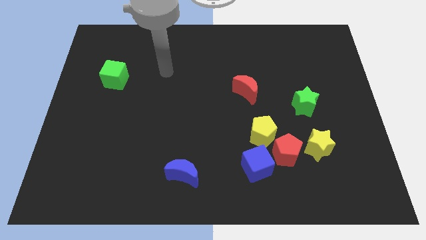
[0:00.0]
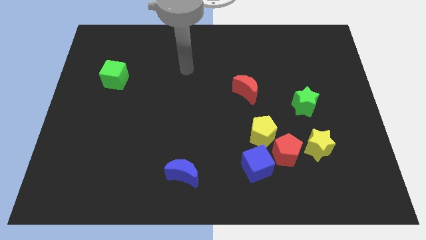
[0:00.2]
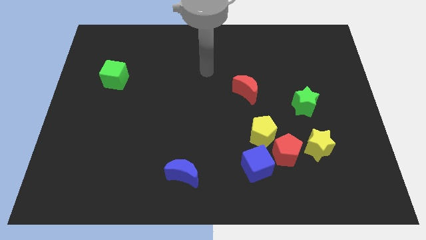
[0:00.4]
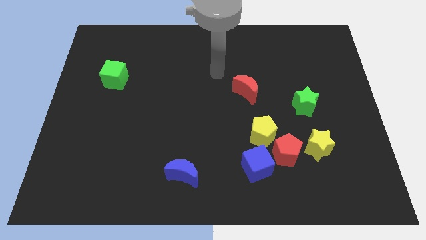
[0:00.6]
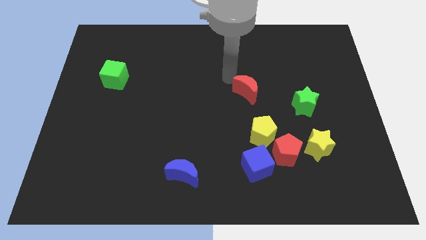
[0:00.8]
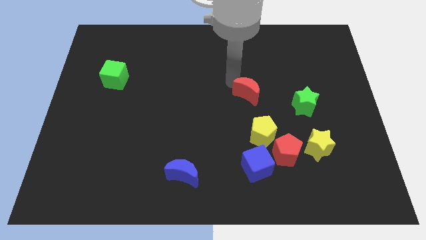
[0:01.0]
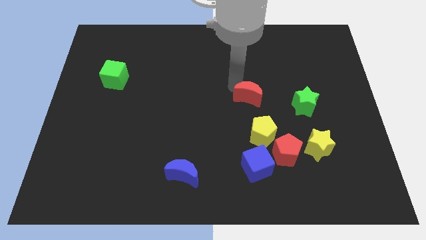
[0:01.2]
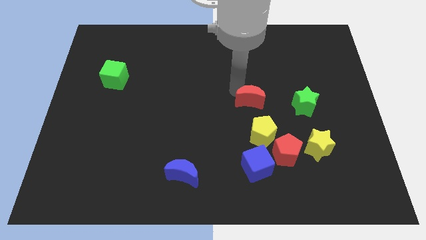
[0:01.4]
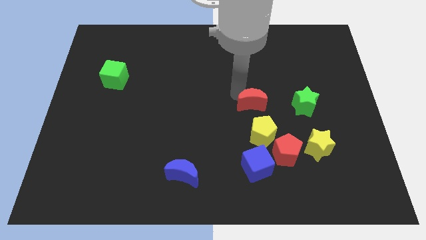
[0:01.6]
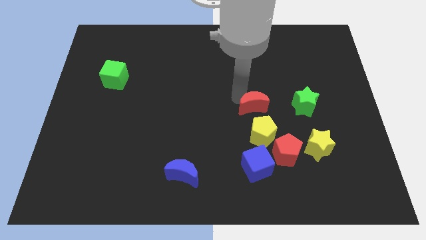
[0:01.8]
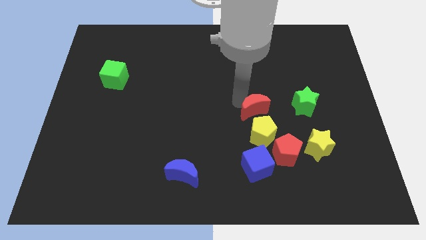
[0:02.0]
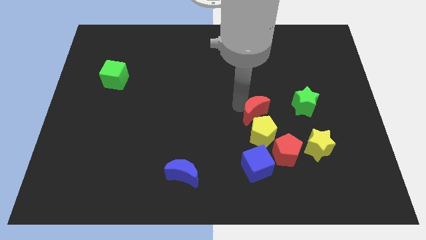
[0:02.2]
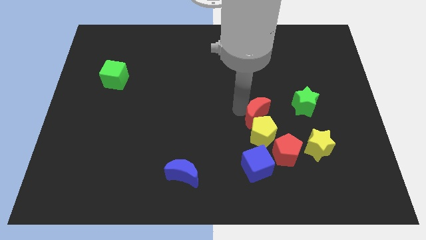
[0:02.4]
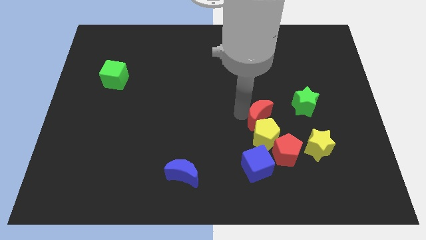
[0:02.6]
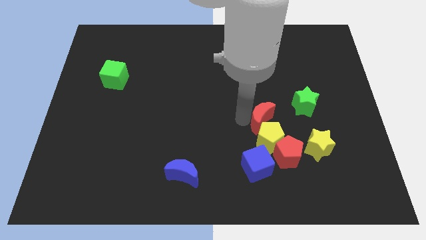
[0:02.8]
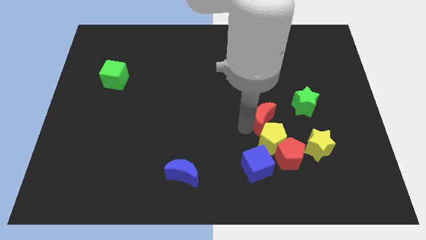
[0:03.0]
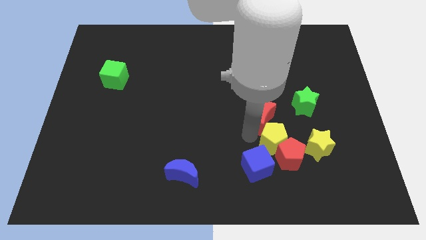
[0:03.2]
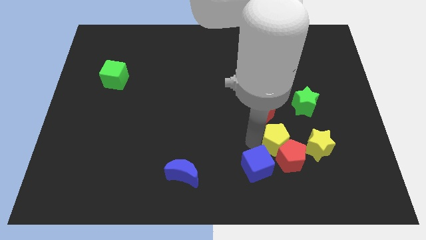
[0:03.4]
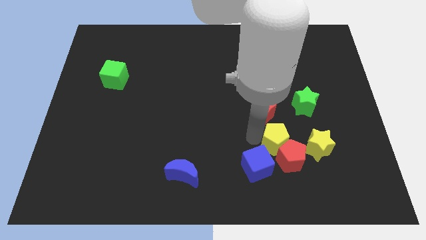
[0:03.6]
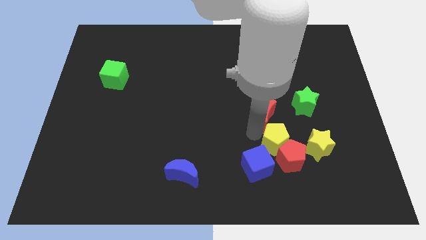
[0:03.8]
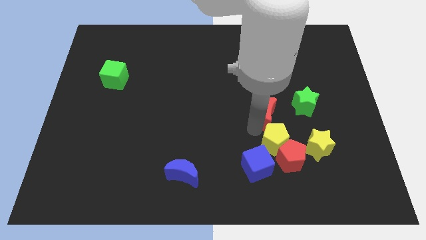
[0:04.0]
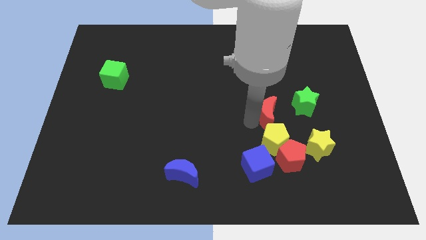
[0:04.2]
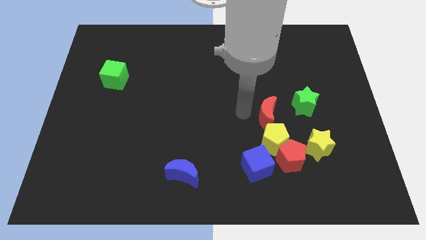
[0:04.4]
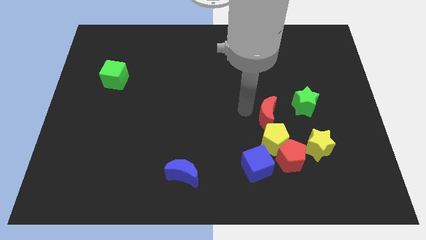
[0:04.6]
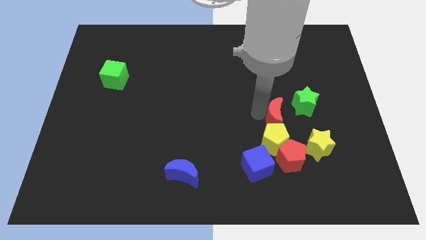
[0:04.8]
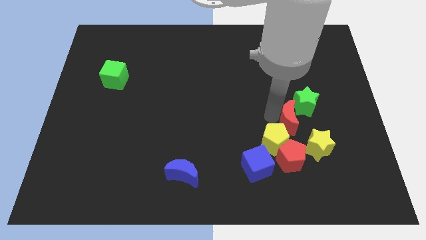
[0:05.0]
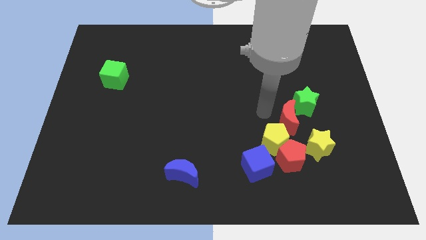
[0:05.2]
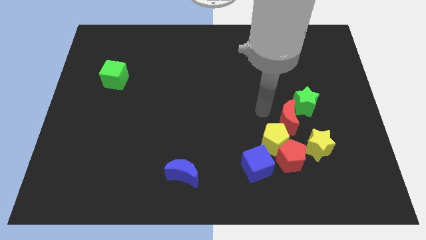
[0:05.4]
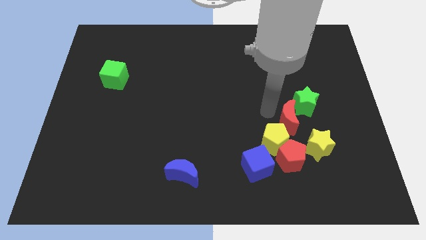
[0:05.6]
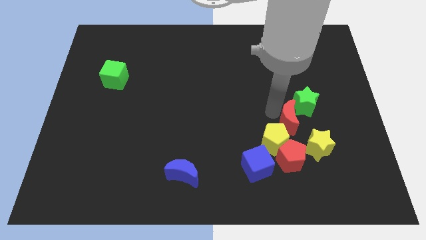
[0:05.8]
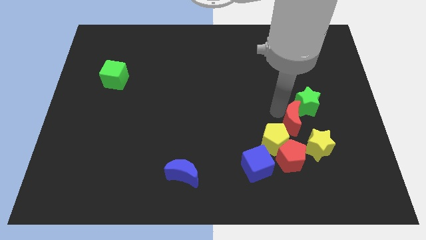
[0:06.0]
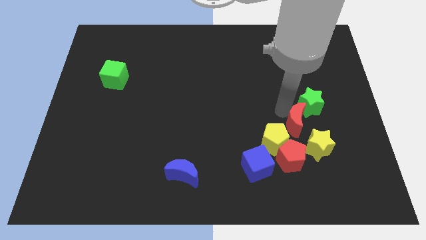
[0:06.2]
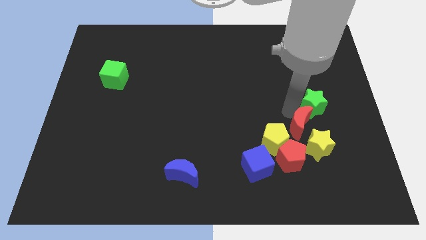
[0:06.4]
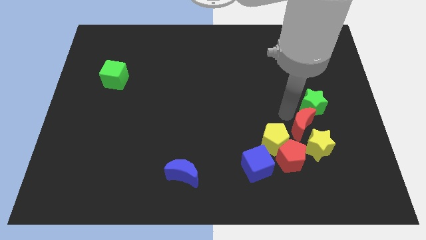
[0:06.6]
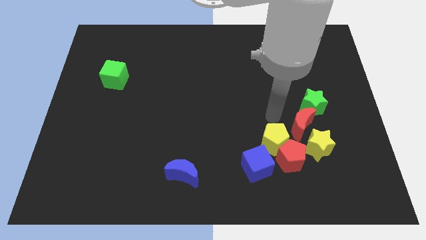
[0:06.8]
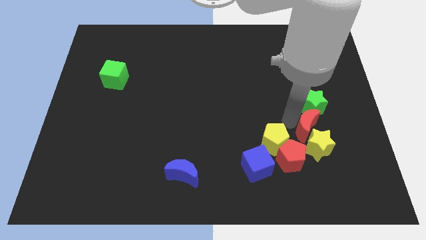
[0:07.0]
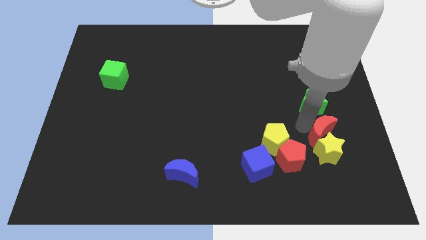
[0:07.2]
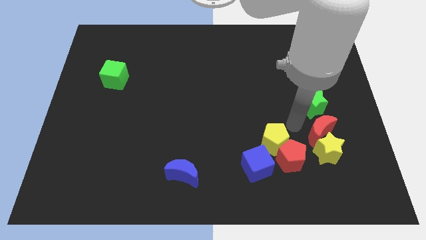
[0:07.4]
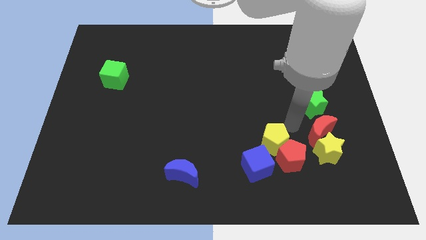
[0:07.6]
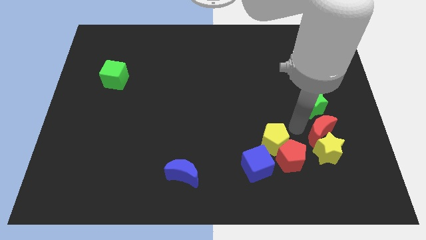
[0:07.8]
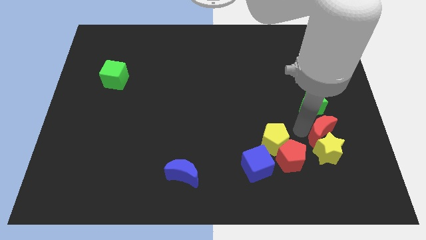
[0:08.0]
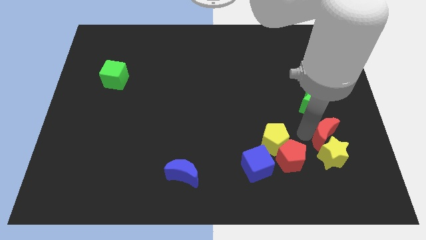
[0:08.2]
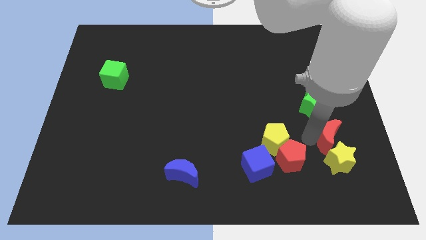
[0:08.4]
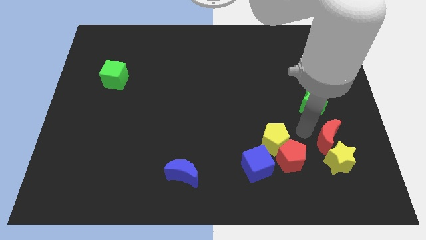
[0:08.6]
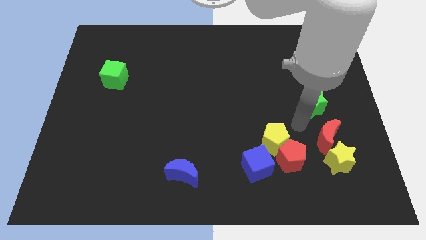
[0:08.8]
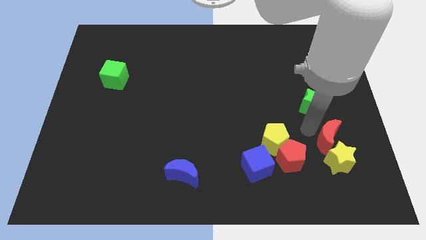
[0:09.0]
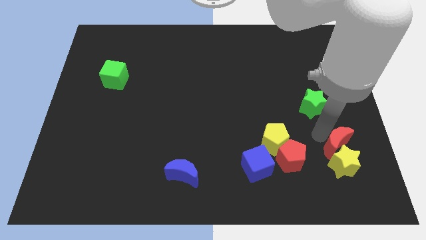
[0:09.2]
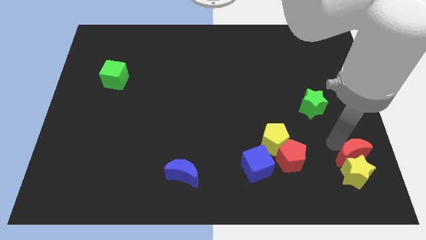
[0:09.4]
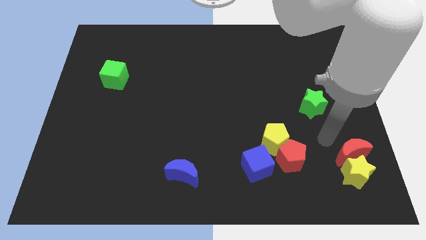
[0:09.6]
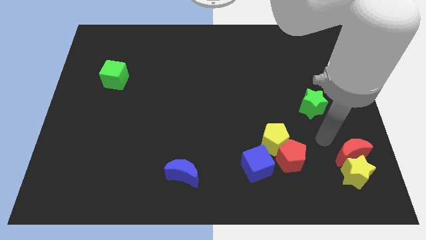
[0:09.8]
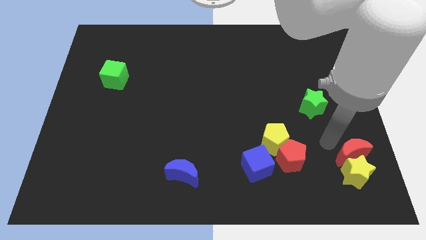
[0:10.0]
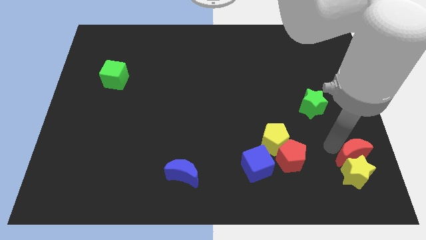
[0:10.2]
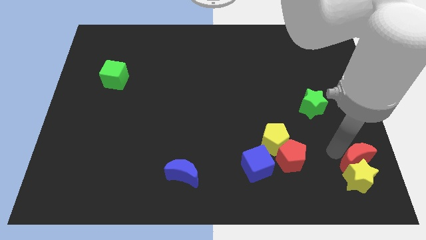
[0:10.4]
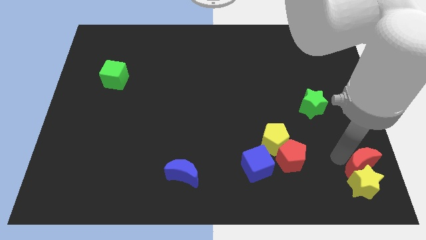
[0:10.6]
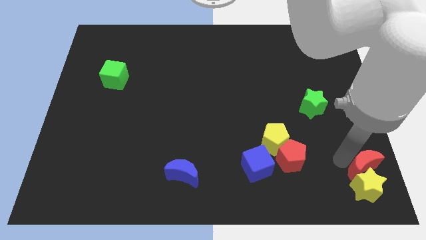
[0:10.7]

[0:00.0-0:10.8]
put the red moon to the lower right corner
